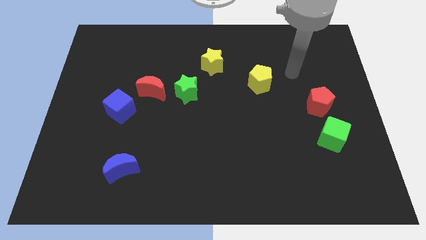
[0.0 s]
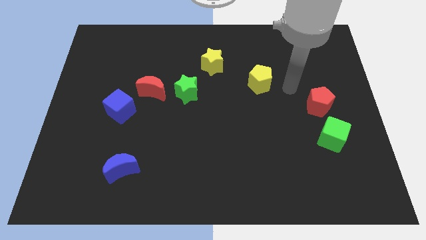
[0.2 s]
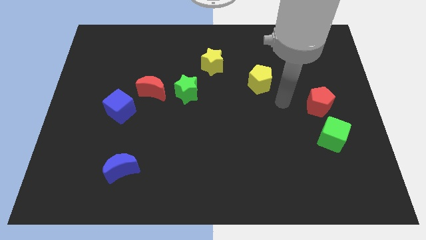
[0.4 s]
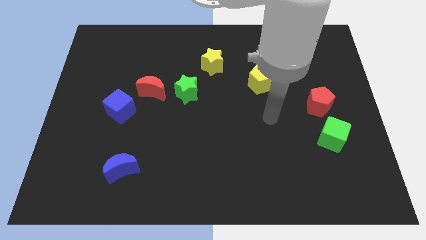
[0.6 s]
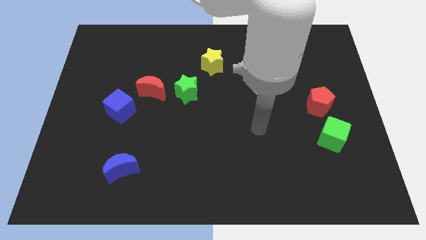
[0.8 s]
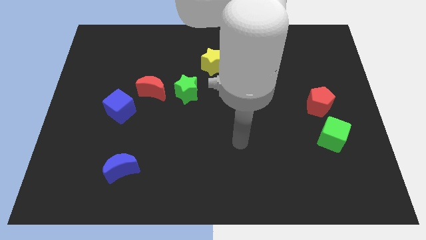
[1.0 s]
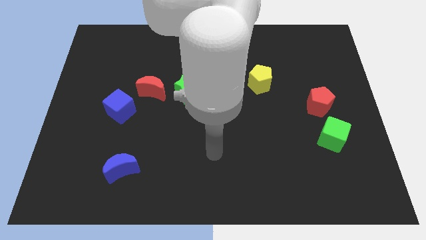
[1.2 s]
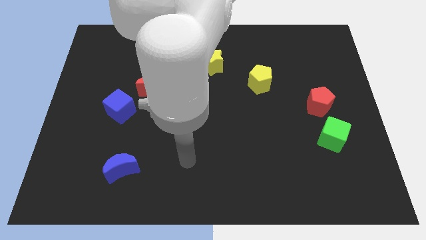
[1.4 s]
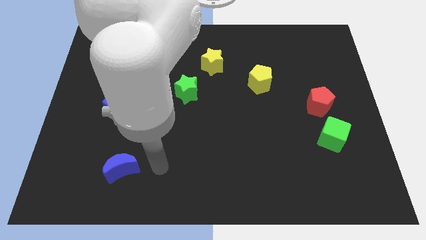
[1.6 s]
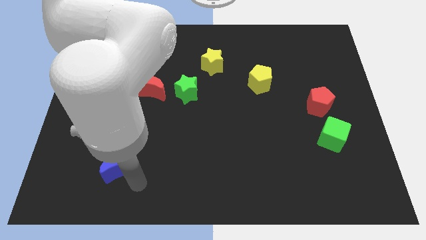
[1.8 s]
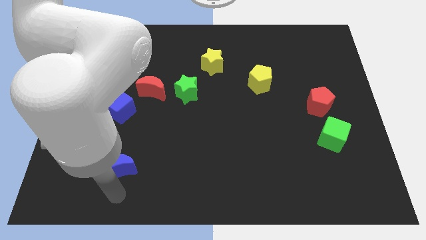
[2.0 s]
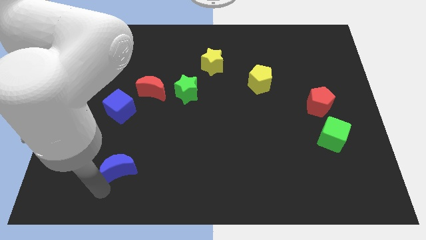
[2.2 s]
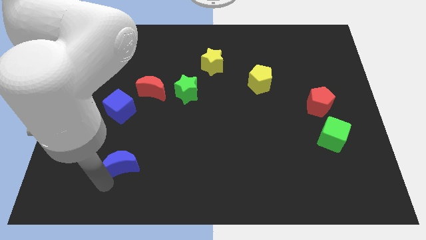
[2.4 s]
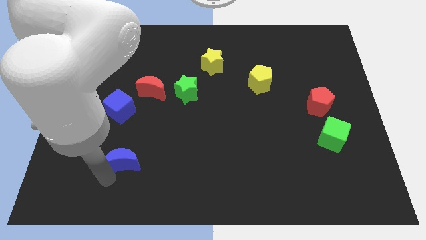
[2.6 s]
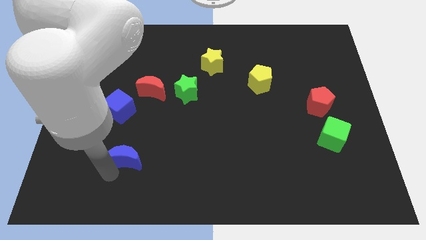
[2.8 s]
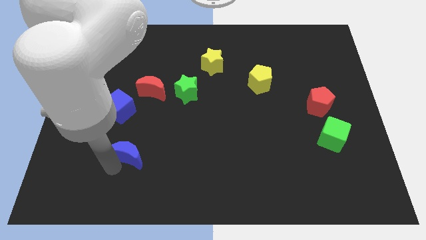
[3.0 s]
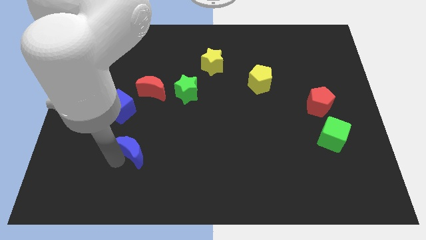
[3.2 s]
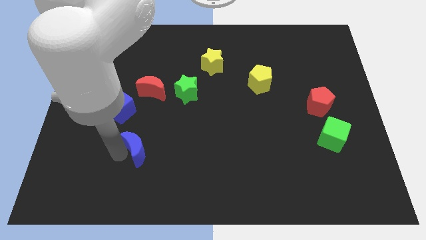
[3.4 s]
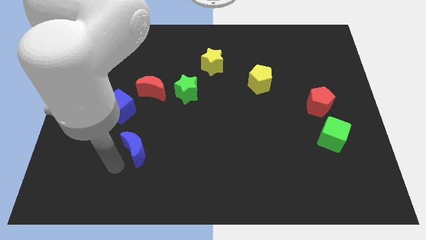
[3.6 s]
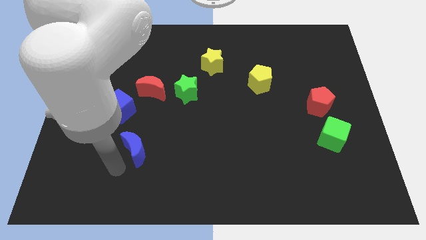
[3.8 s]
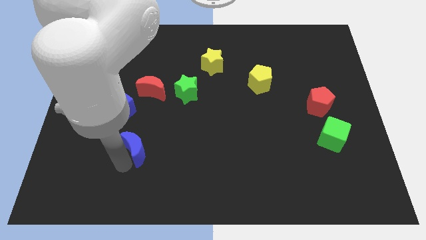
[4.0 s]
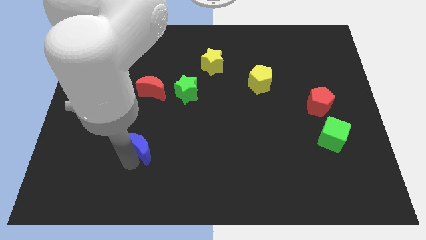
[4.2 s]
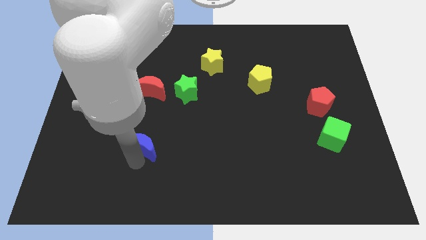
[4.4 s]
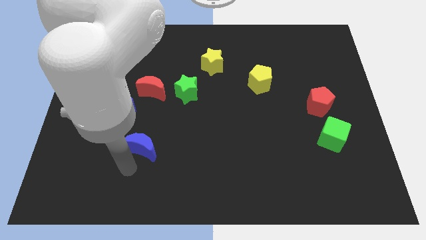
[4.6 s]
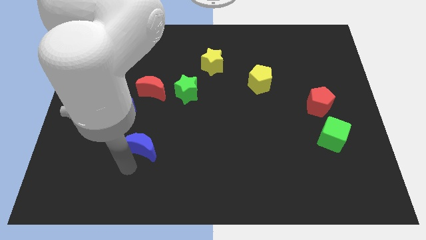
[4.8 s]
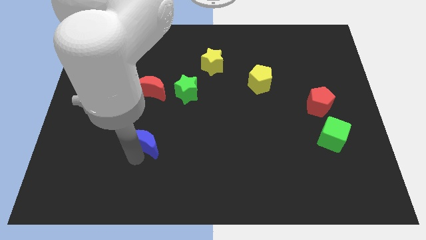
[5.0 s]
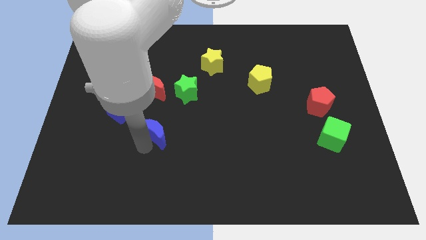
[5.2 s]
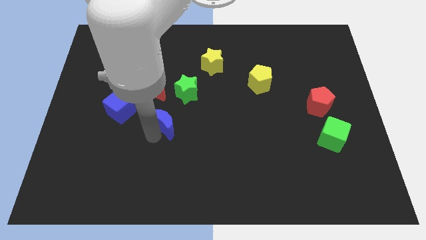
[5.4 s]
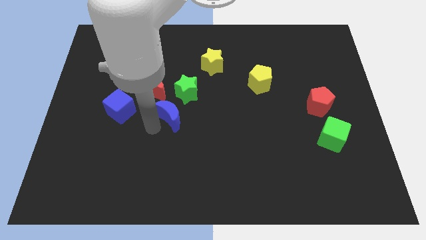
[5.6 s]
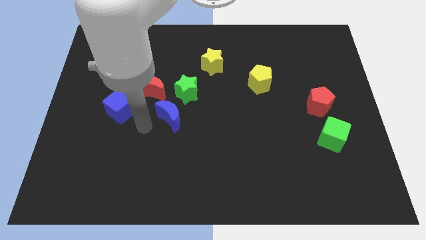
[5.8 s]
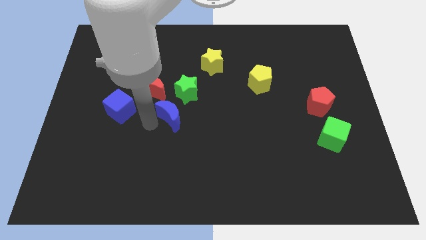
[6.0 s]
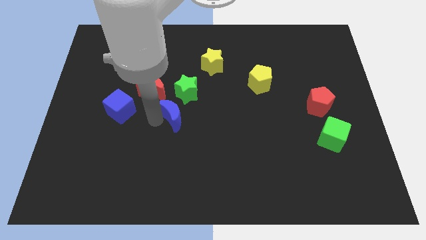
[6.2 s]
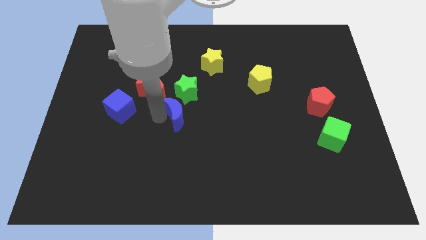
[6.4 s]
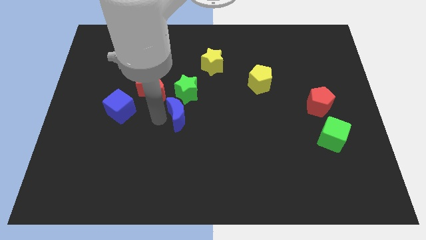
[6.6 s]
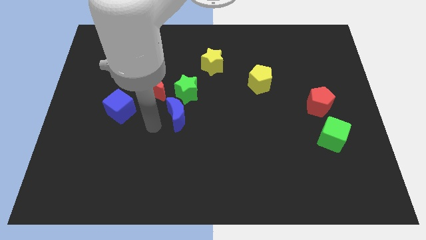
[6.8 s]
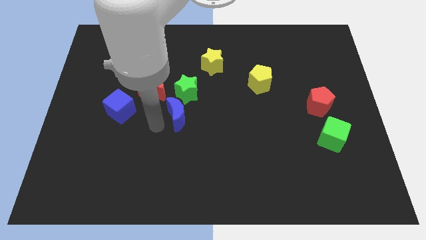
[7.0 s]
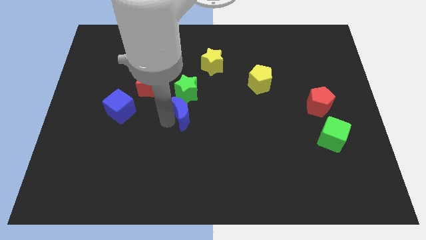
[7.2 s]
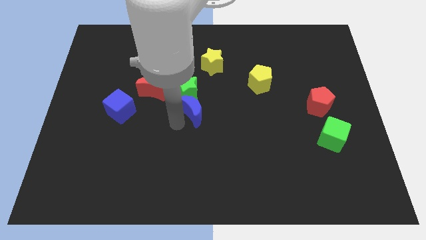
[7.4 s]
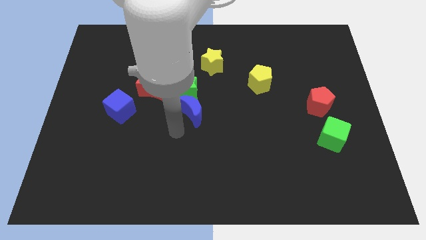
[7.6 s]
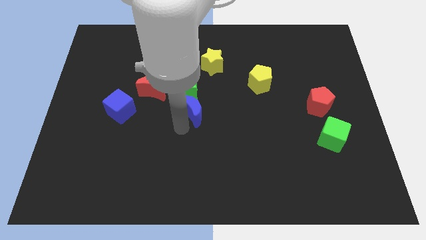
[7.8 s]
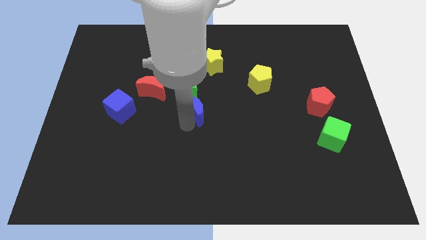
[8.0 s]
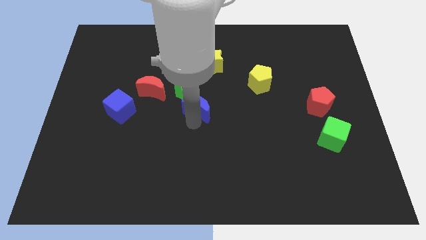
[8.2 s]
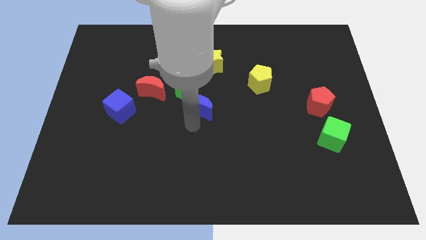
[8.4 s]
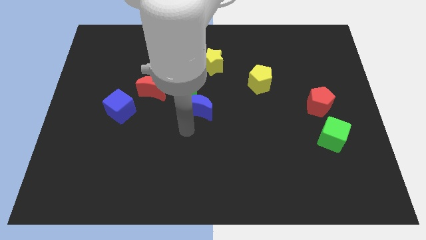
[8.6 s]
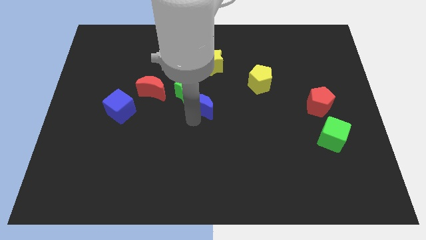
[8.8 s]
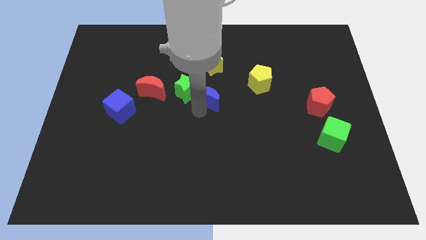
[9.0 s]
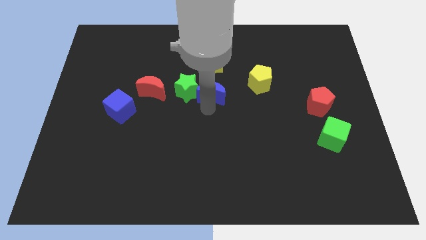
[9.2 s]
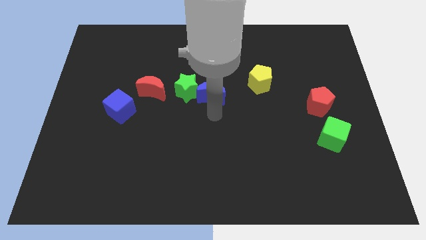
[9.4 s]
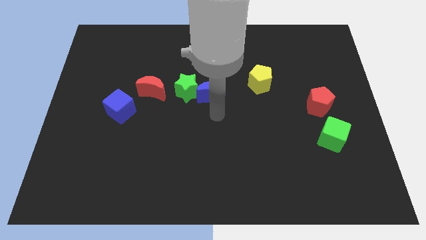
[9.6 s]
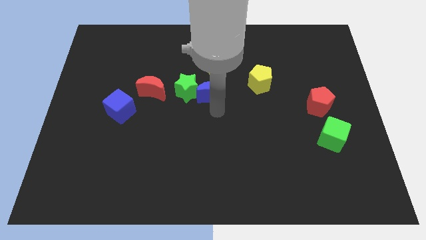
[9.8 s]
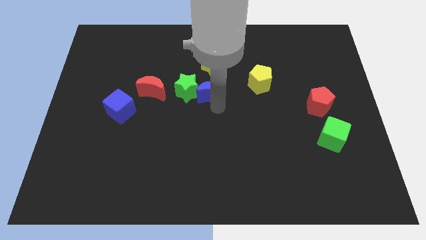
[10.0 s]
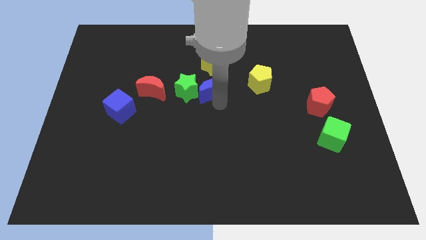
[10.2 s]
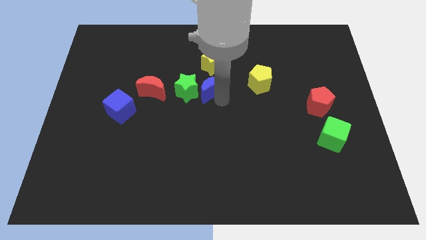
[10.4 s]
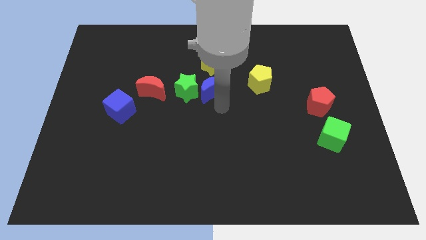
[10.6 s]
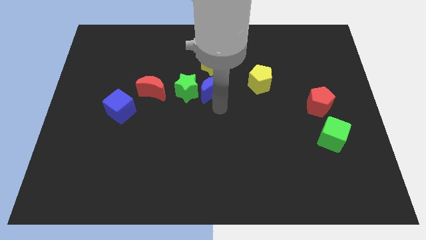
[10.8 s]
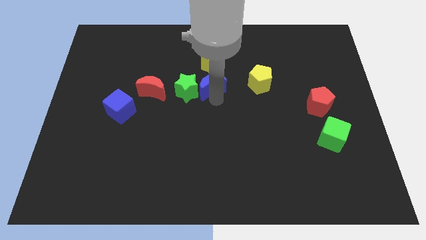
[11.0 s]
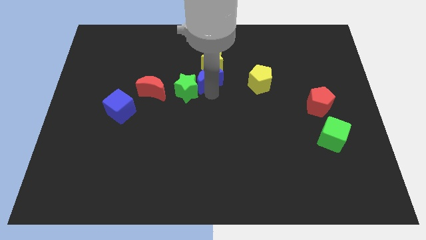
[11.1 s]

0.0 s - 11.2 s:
move the blue moon close to the yellow star

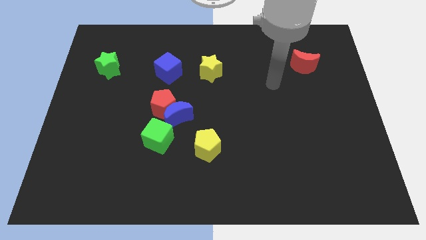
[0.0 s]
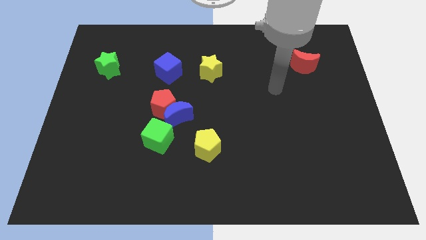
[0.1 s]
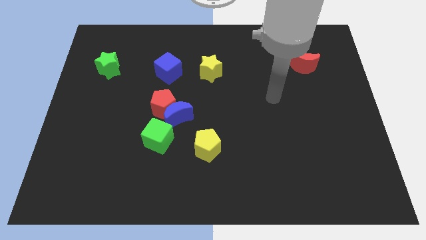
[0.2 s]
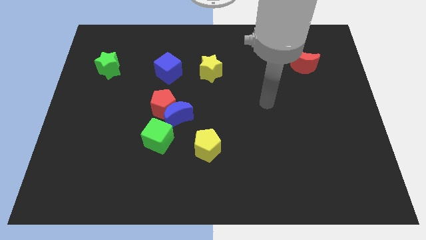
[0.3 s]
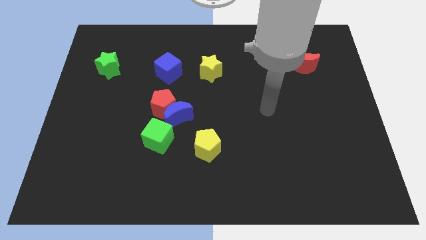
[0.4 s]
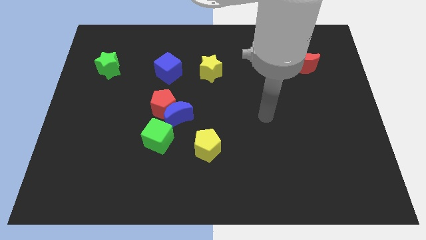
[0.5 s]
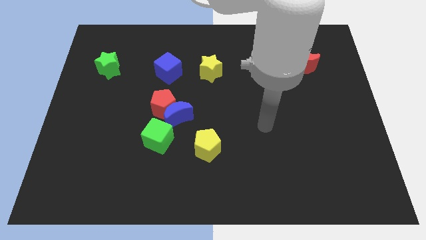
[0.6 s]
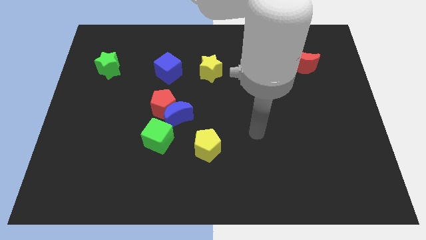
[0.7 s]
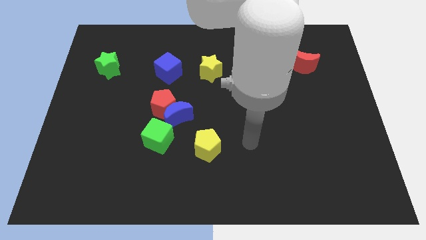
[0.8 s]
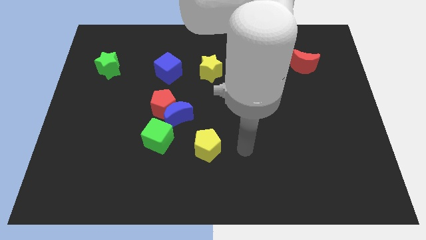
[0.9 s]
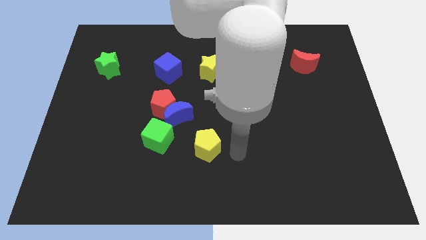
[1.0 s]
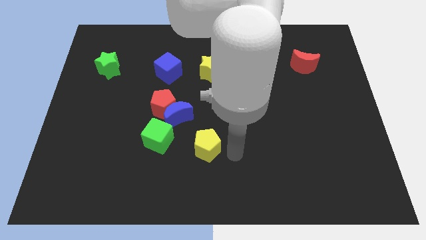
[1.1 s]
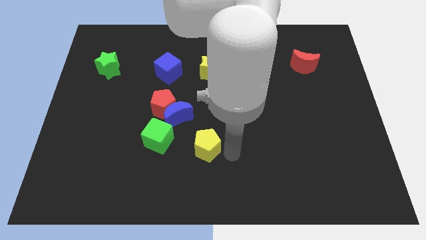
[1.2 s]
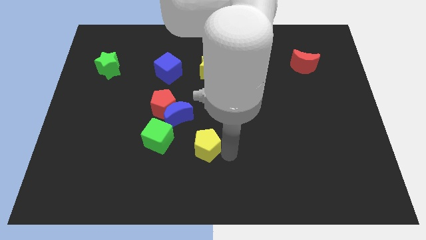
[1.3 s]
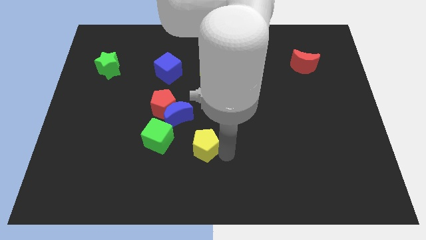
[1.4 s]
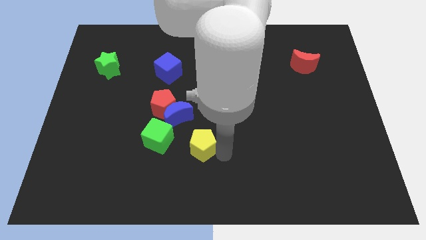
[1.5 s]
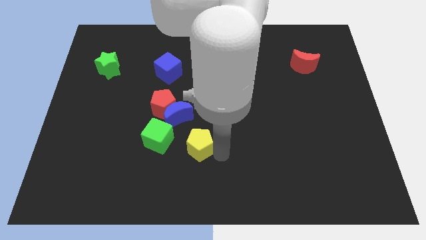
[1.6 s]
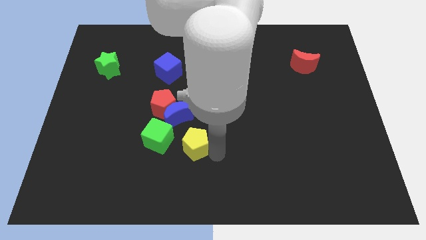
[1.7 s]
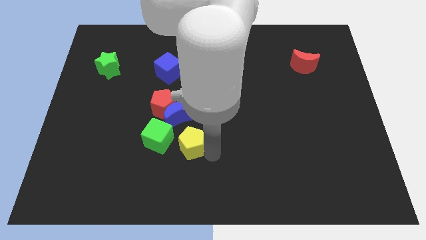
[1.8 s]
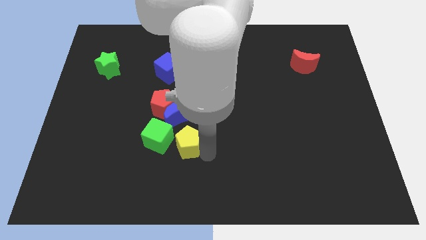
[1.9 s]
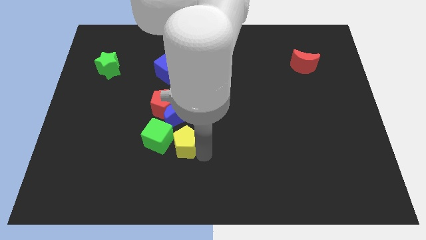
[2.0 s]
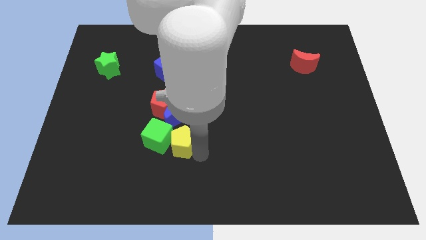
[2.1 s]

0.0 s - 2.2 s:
move the yellow pentagon close to the green cube
